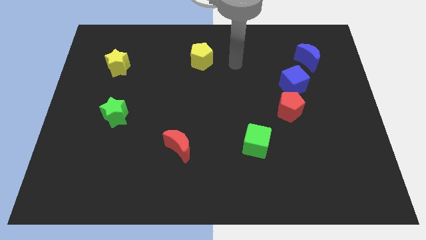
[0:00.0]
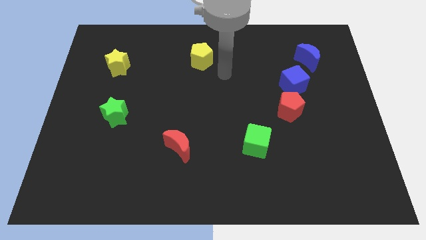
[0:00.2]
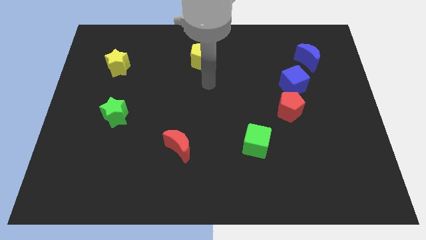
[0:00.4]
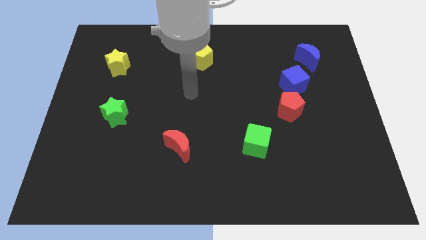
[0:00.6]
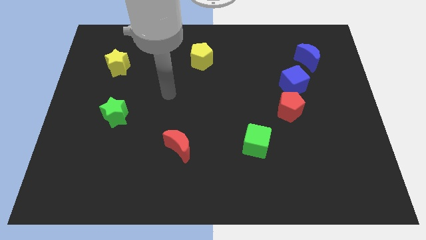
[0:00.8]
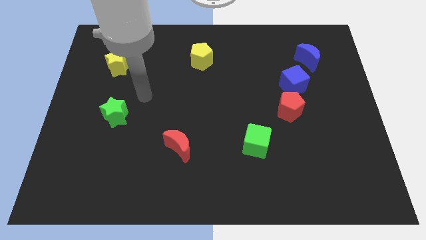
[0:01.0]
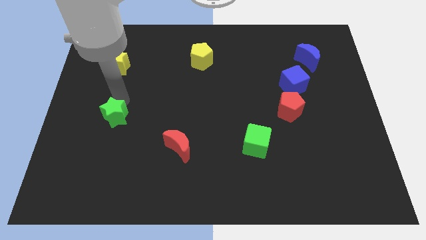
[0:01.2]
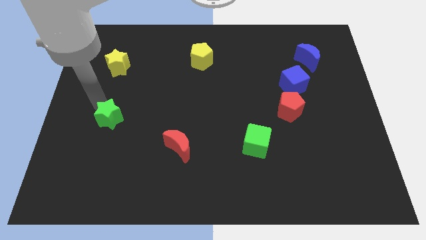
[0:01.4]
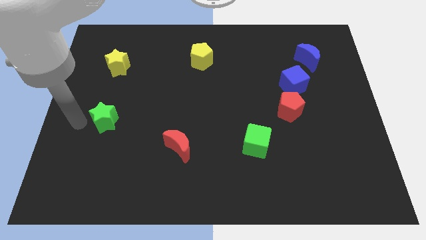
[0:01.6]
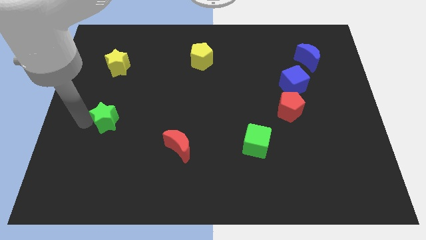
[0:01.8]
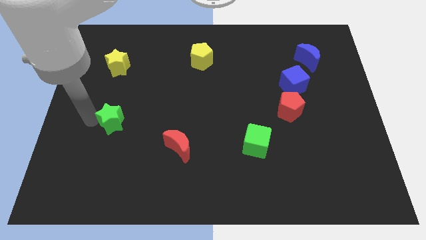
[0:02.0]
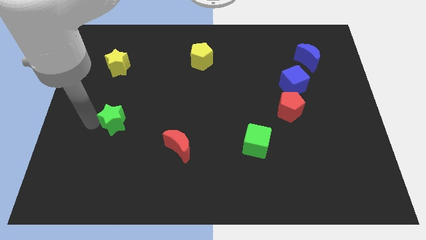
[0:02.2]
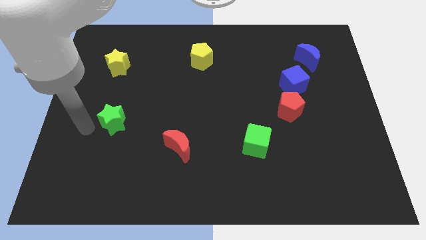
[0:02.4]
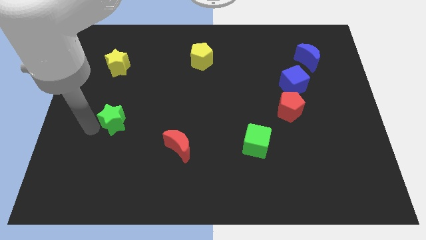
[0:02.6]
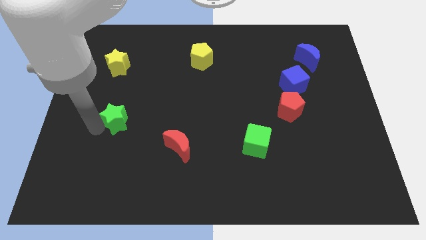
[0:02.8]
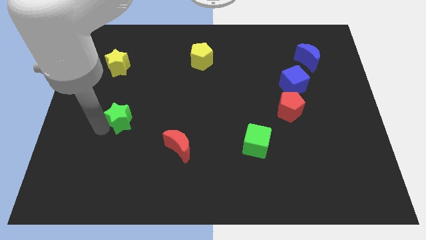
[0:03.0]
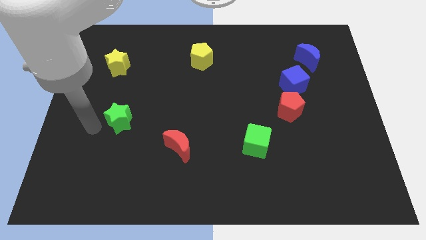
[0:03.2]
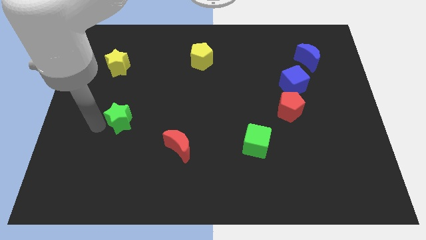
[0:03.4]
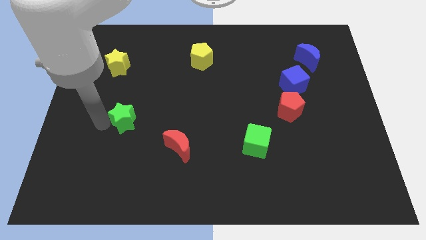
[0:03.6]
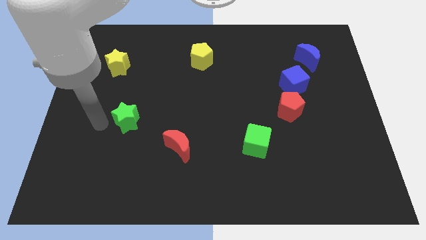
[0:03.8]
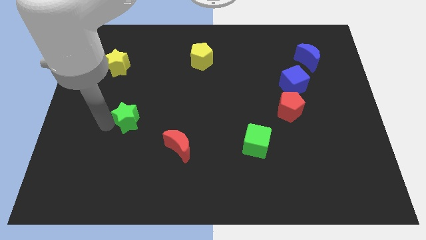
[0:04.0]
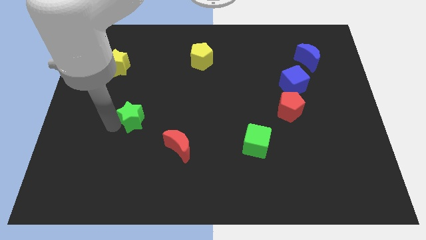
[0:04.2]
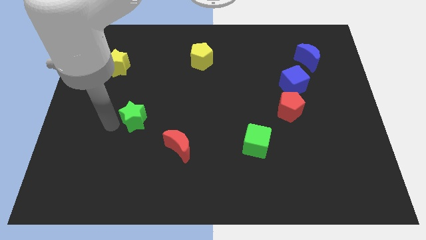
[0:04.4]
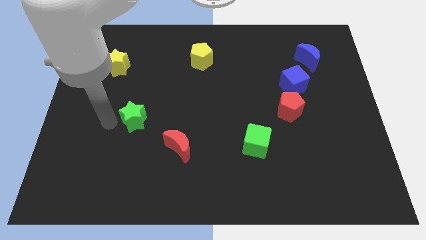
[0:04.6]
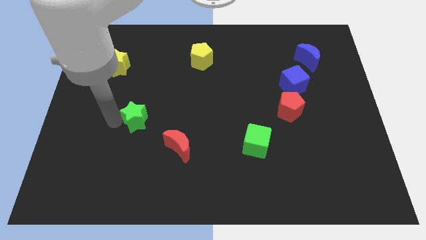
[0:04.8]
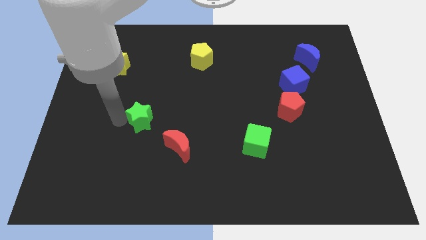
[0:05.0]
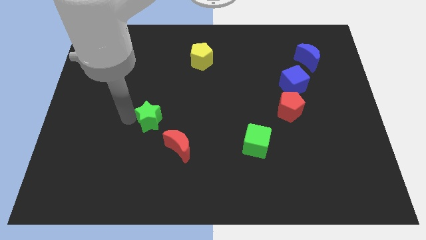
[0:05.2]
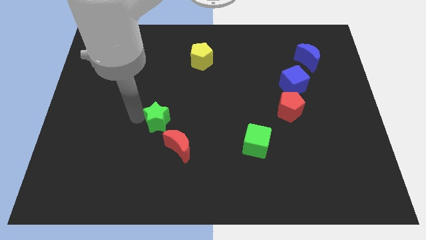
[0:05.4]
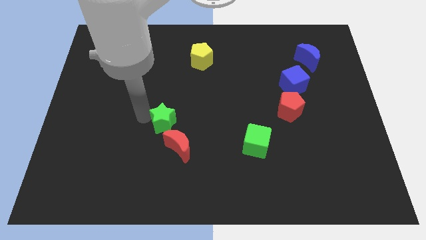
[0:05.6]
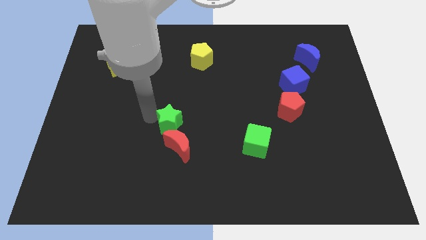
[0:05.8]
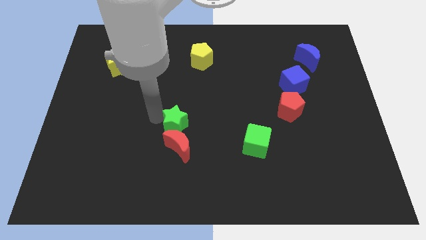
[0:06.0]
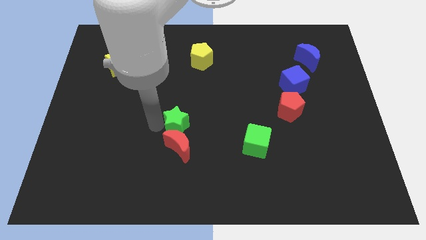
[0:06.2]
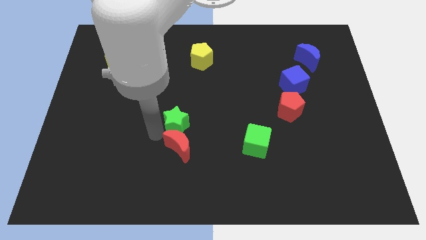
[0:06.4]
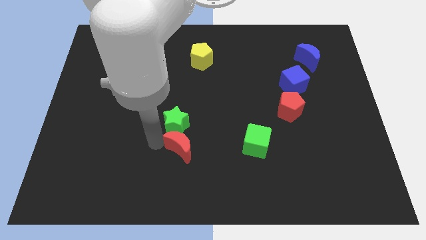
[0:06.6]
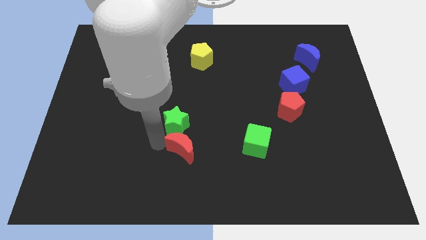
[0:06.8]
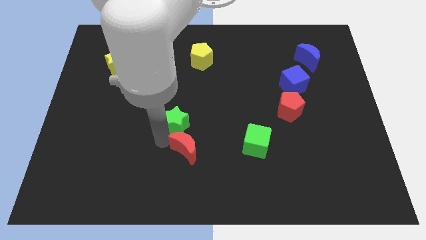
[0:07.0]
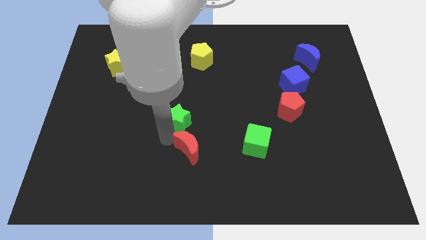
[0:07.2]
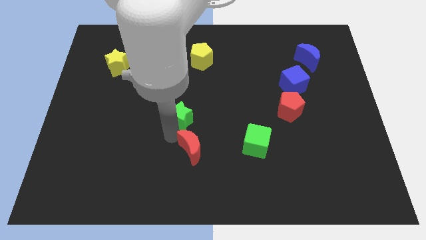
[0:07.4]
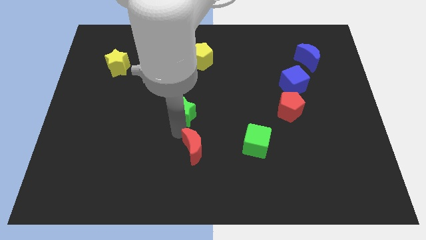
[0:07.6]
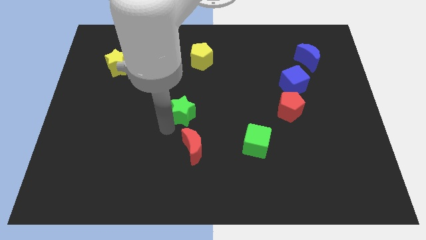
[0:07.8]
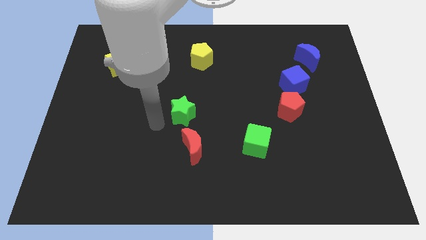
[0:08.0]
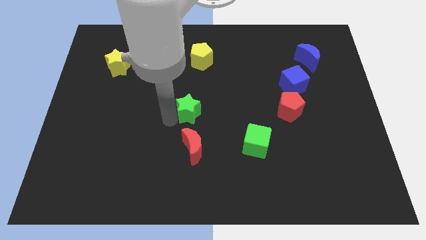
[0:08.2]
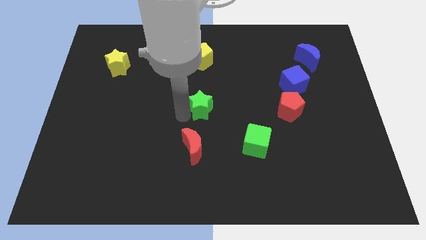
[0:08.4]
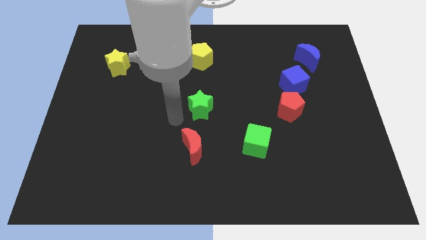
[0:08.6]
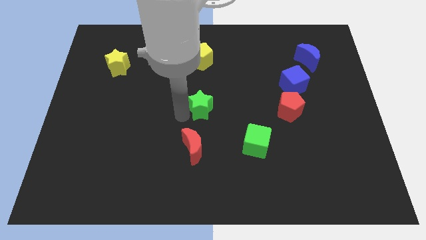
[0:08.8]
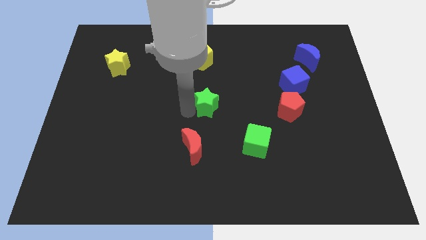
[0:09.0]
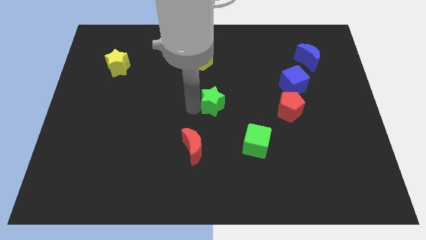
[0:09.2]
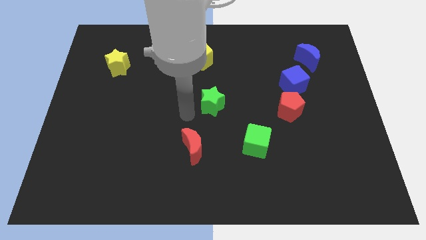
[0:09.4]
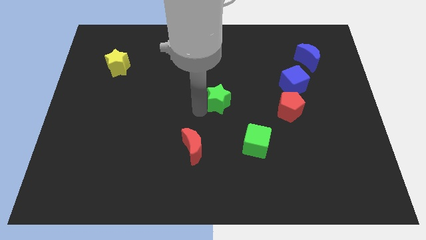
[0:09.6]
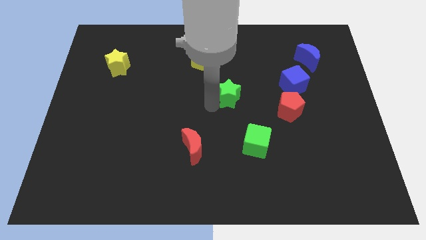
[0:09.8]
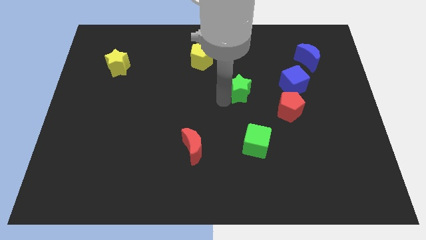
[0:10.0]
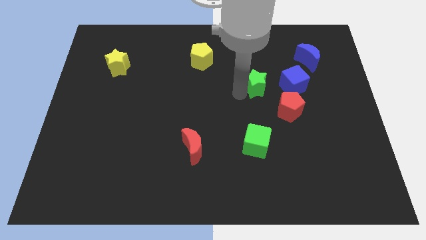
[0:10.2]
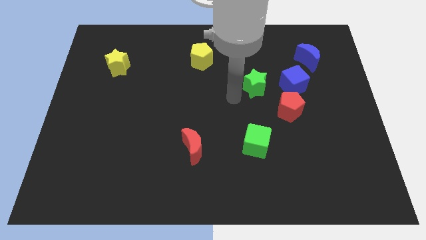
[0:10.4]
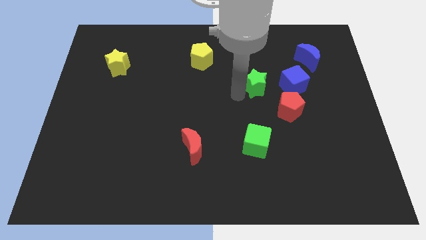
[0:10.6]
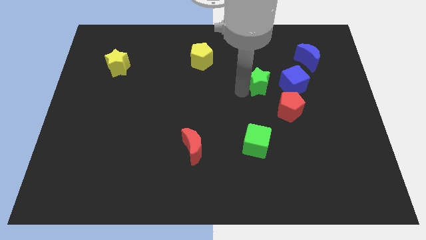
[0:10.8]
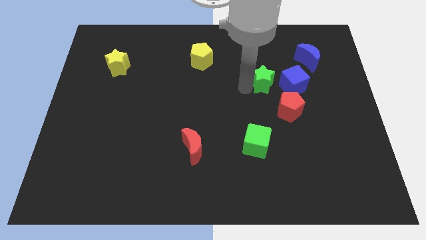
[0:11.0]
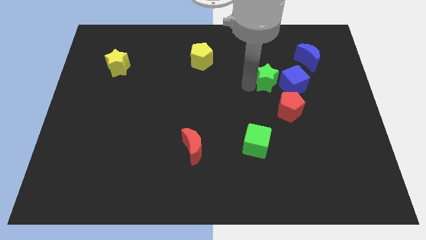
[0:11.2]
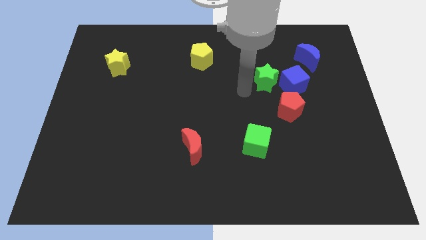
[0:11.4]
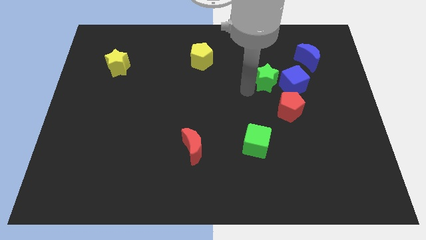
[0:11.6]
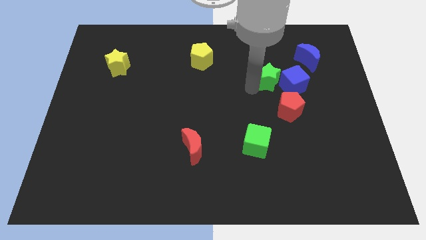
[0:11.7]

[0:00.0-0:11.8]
slide the green star next to the blue cube

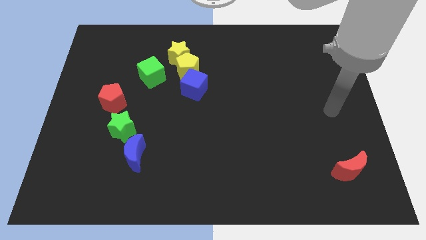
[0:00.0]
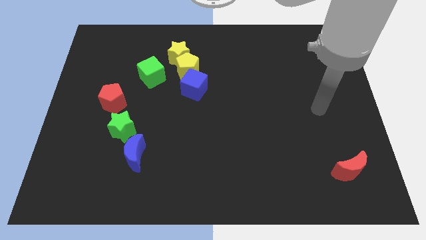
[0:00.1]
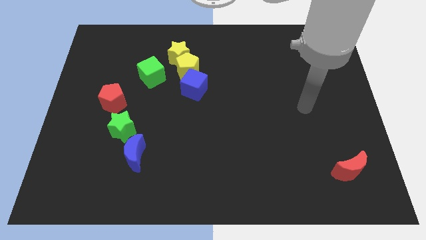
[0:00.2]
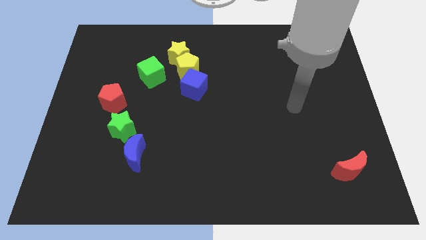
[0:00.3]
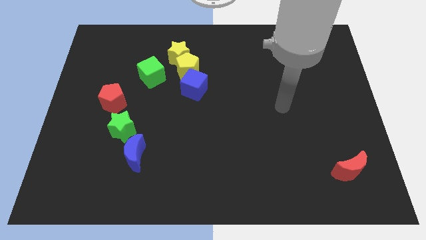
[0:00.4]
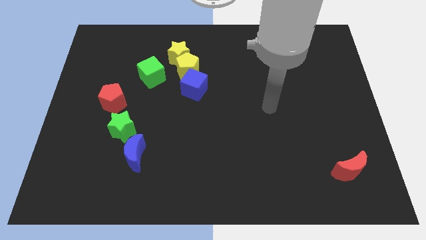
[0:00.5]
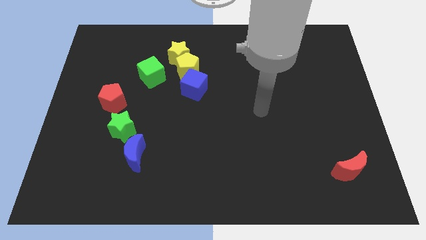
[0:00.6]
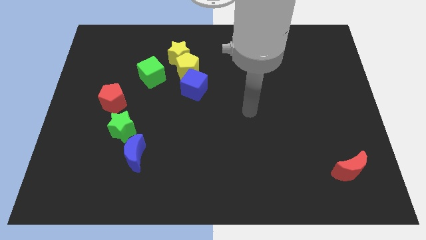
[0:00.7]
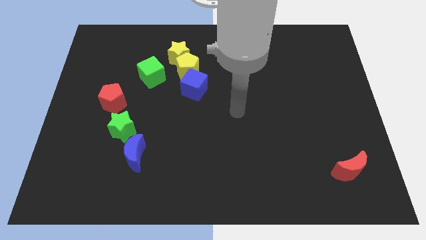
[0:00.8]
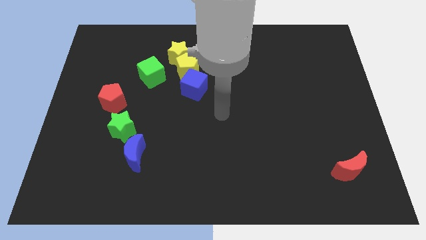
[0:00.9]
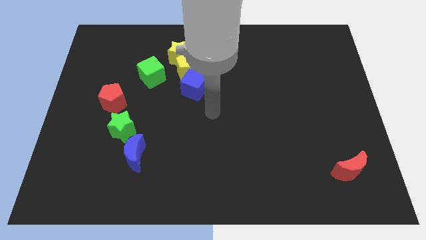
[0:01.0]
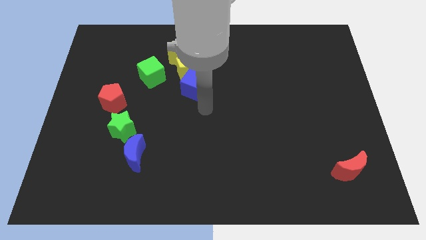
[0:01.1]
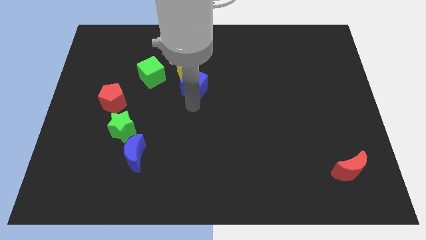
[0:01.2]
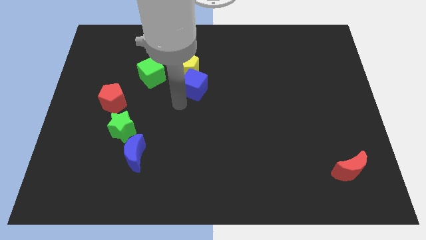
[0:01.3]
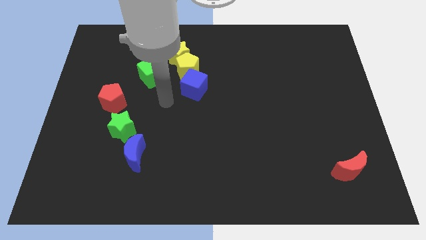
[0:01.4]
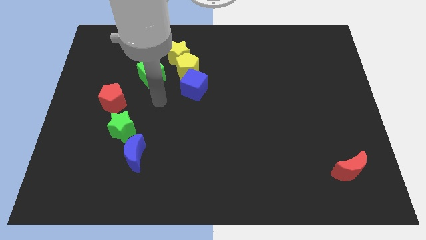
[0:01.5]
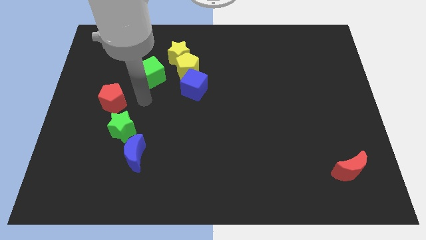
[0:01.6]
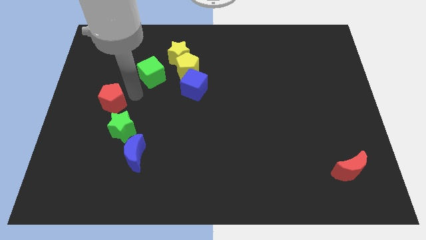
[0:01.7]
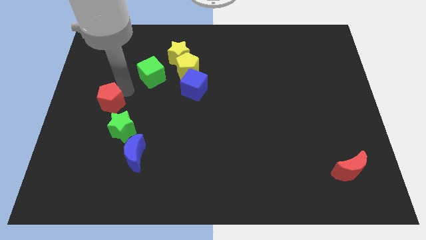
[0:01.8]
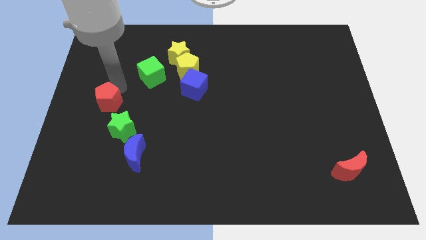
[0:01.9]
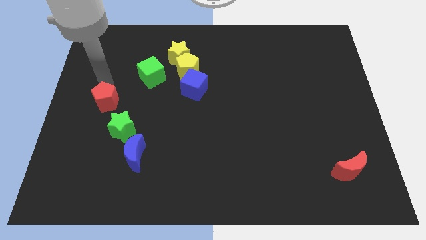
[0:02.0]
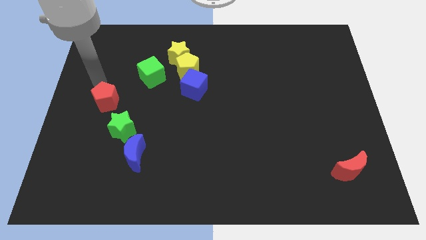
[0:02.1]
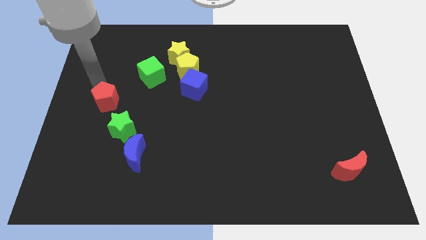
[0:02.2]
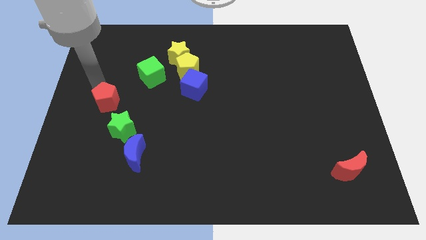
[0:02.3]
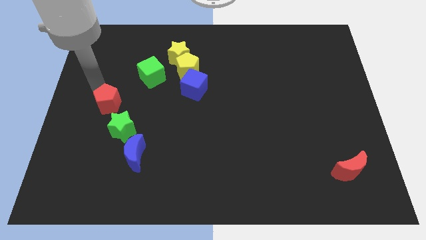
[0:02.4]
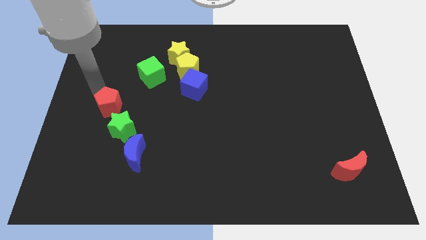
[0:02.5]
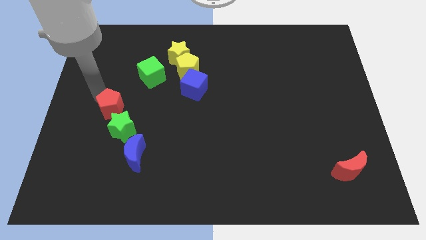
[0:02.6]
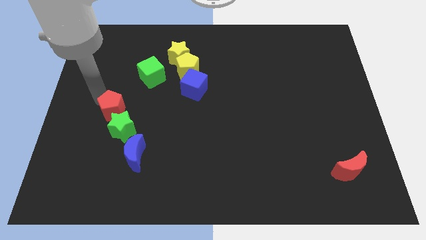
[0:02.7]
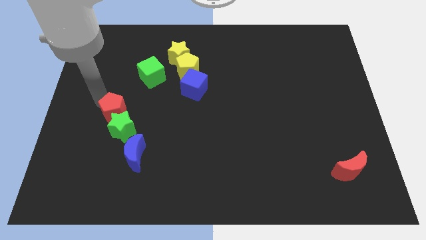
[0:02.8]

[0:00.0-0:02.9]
move the red pentagon to the green star
